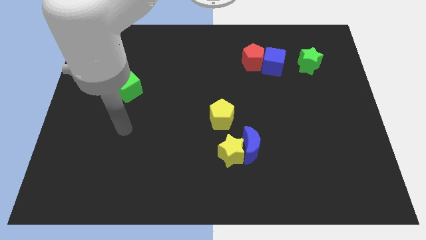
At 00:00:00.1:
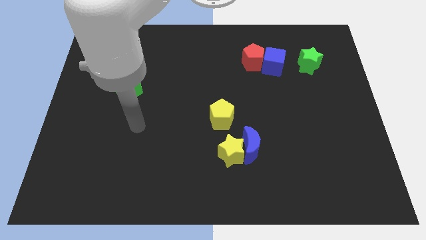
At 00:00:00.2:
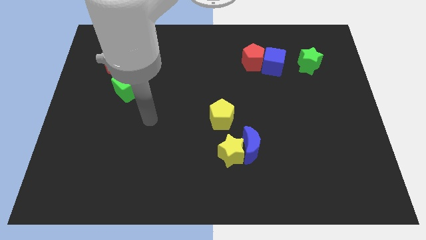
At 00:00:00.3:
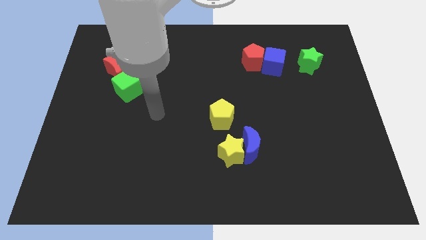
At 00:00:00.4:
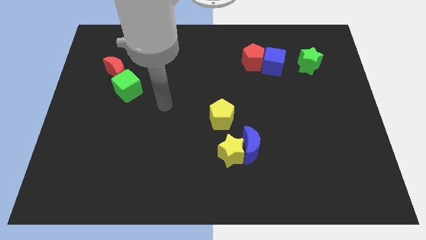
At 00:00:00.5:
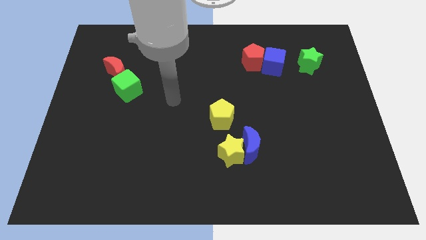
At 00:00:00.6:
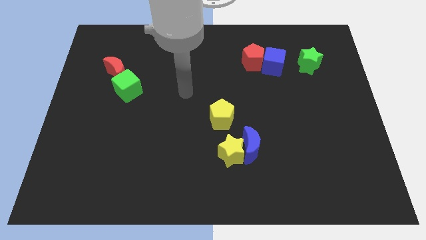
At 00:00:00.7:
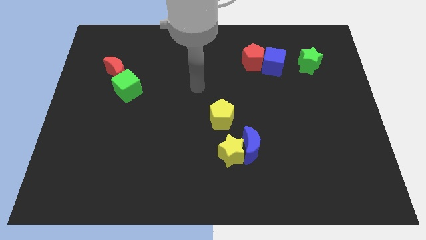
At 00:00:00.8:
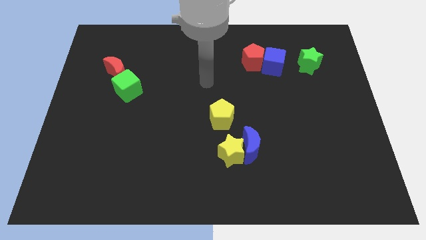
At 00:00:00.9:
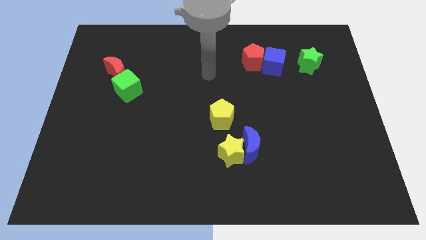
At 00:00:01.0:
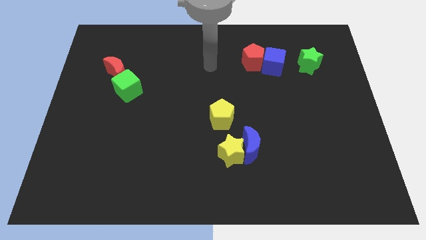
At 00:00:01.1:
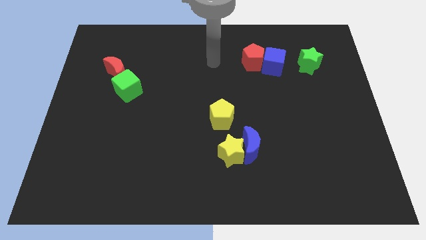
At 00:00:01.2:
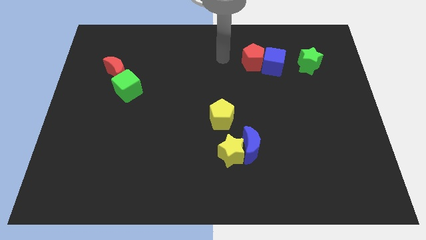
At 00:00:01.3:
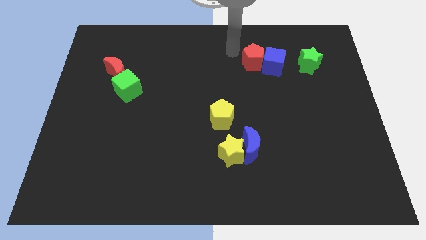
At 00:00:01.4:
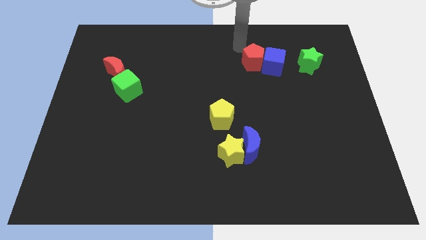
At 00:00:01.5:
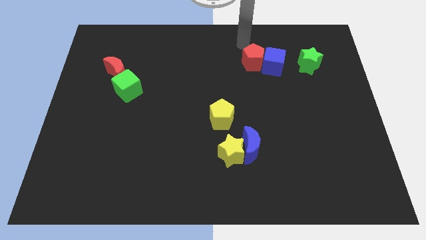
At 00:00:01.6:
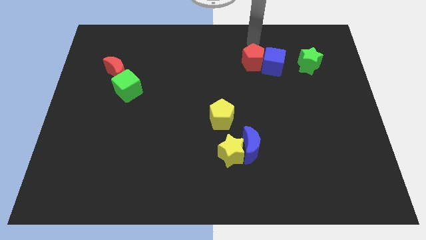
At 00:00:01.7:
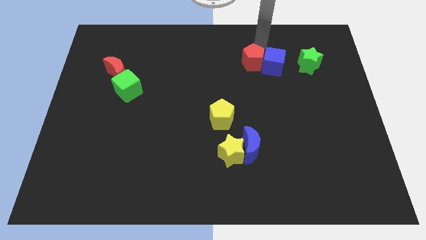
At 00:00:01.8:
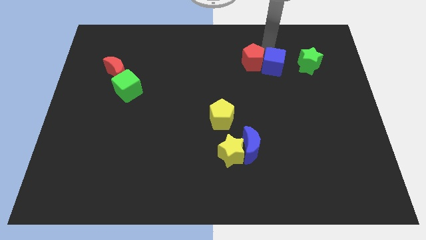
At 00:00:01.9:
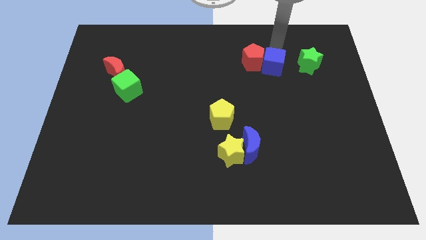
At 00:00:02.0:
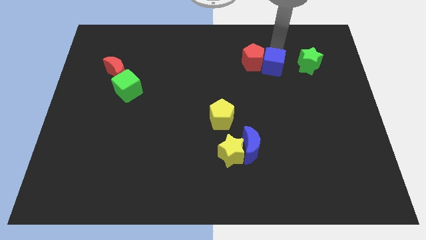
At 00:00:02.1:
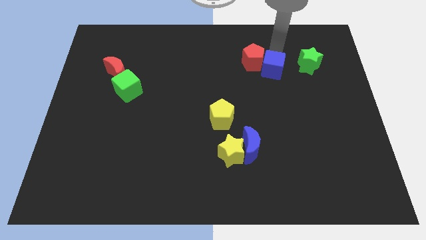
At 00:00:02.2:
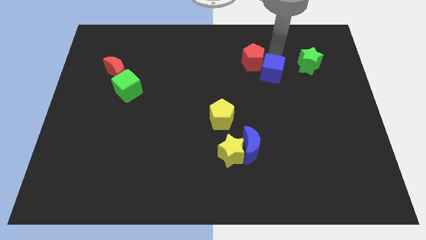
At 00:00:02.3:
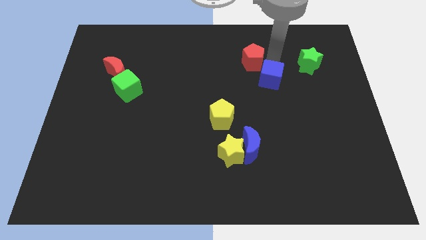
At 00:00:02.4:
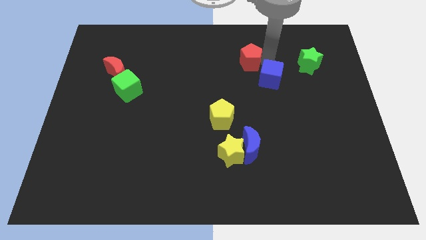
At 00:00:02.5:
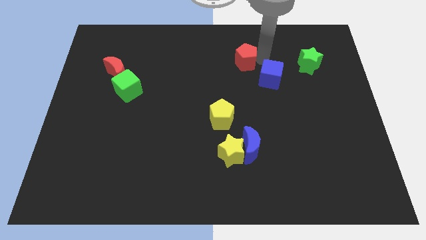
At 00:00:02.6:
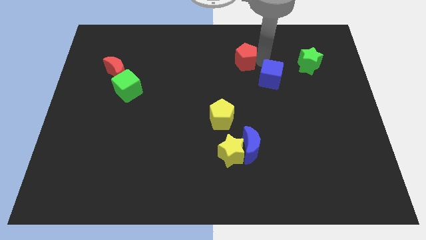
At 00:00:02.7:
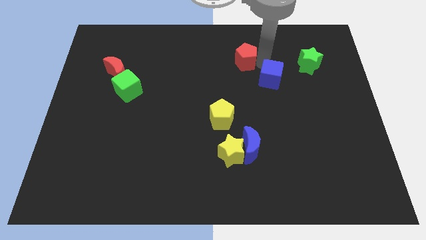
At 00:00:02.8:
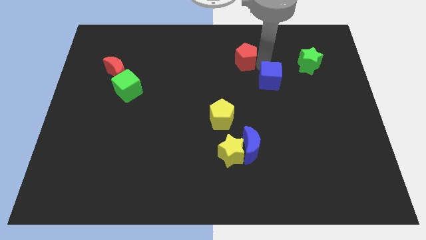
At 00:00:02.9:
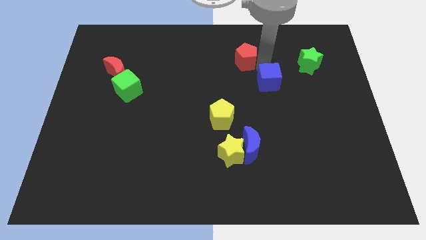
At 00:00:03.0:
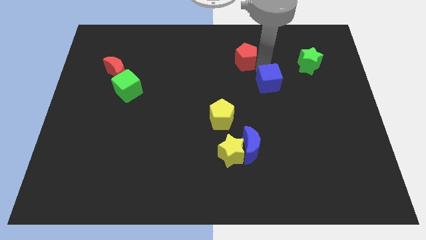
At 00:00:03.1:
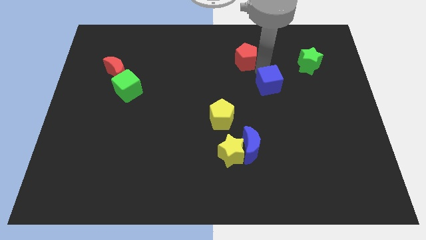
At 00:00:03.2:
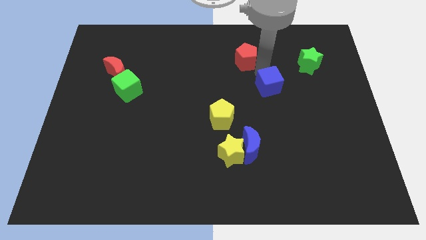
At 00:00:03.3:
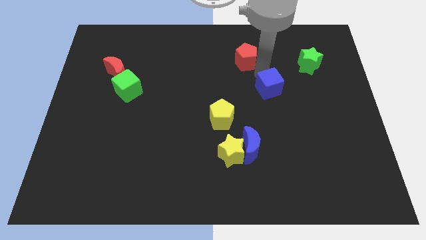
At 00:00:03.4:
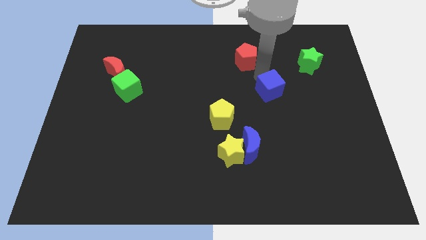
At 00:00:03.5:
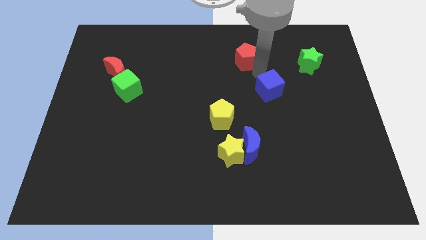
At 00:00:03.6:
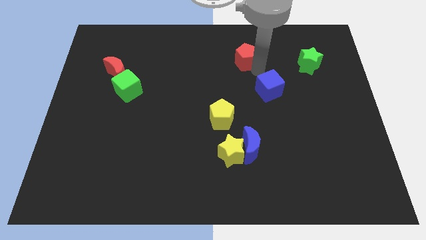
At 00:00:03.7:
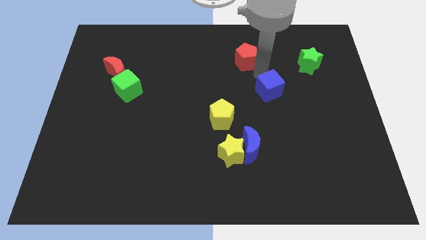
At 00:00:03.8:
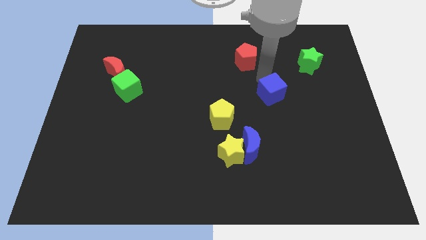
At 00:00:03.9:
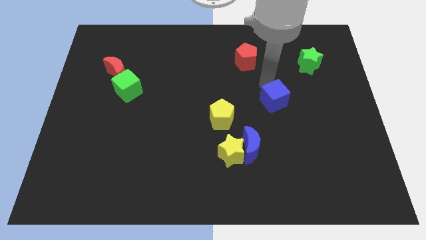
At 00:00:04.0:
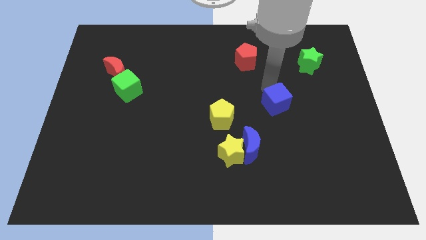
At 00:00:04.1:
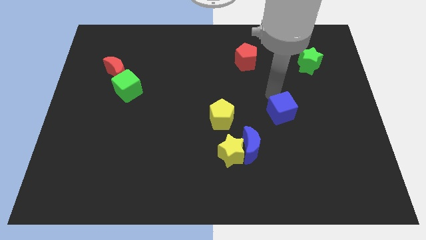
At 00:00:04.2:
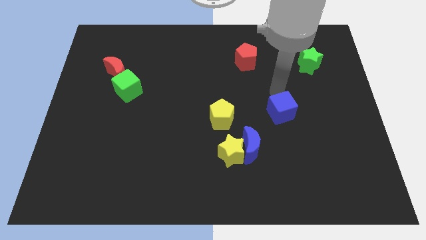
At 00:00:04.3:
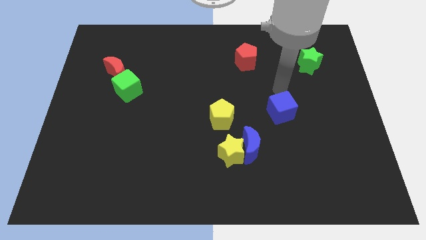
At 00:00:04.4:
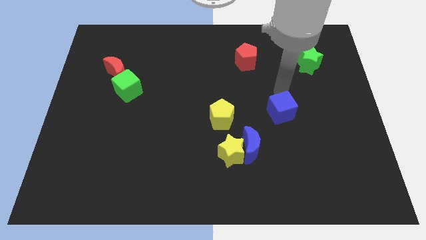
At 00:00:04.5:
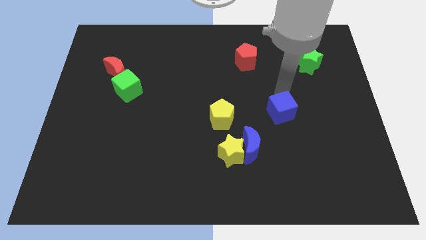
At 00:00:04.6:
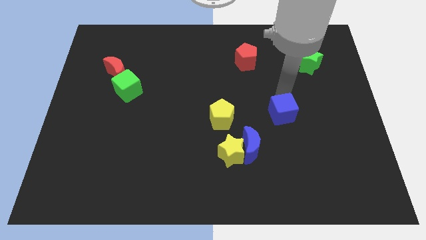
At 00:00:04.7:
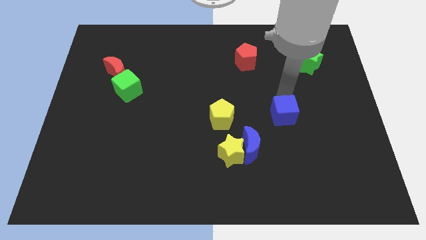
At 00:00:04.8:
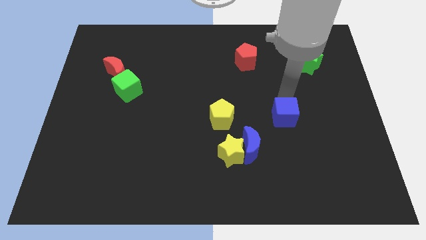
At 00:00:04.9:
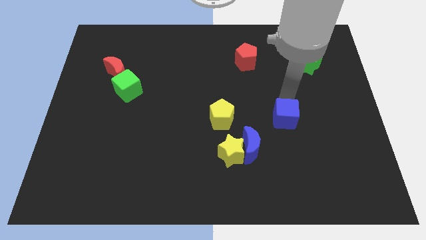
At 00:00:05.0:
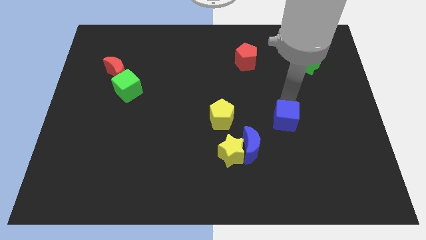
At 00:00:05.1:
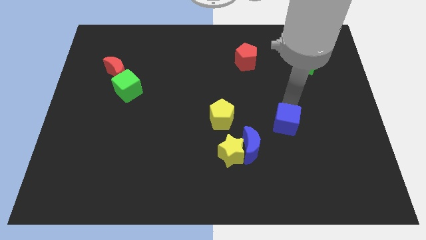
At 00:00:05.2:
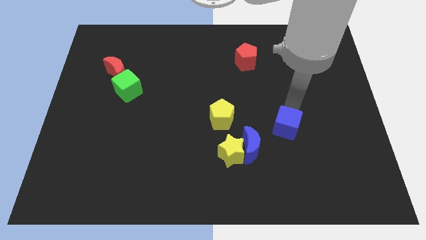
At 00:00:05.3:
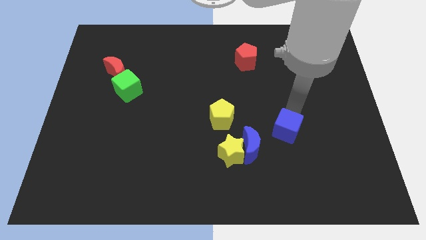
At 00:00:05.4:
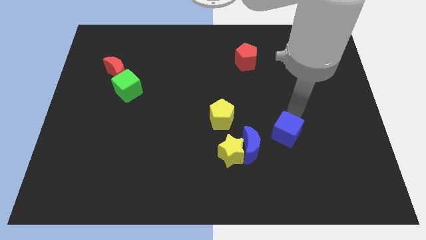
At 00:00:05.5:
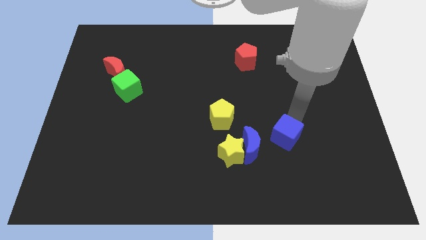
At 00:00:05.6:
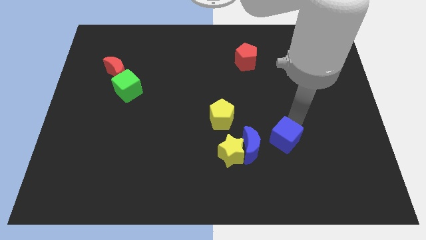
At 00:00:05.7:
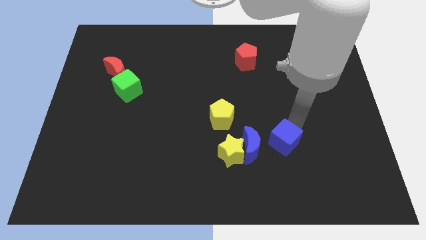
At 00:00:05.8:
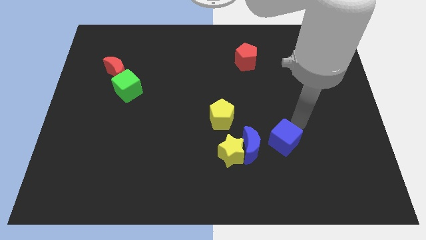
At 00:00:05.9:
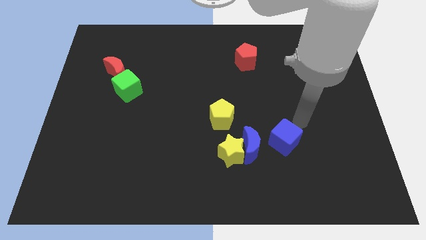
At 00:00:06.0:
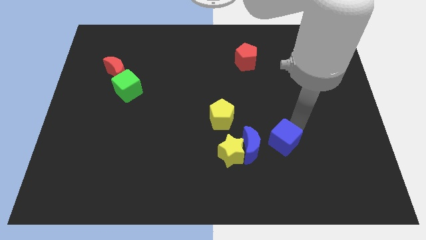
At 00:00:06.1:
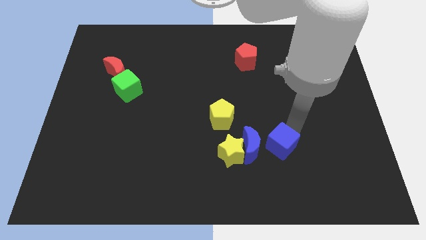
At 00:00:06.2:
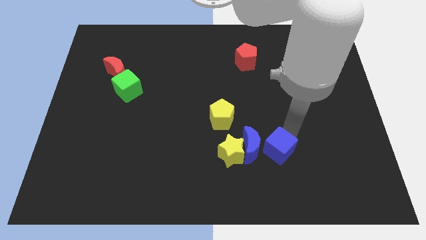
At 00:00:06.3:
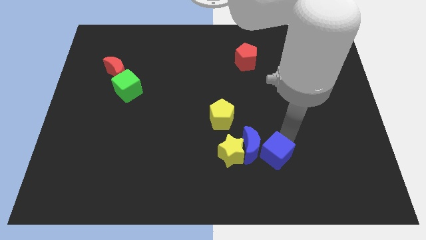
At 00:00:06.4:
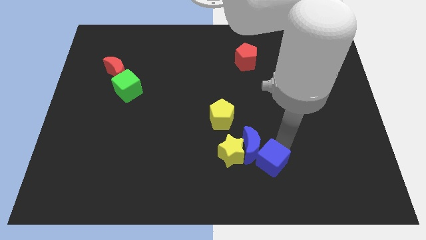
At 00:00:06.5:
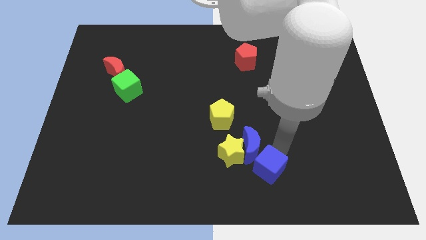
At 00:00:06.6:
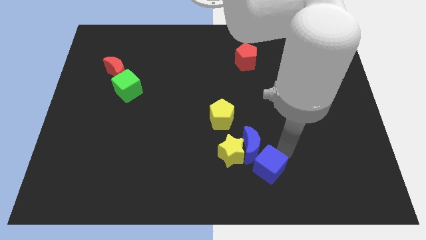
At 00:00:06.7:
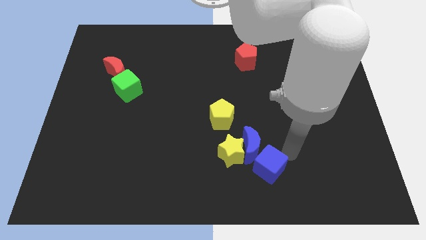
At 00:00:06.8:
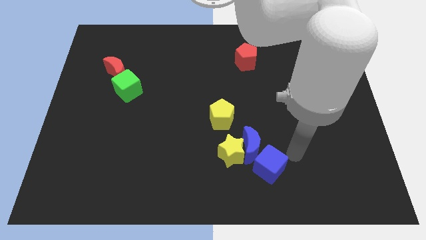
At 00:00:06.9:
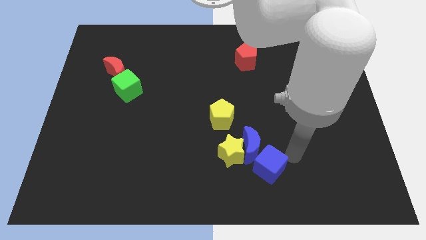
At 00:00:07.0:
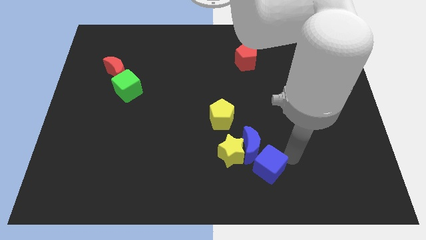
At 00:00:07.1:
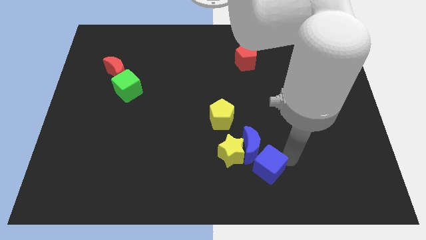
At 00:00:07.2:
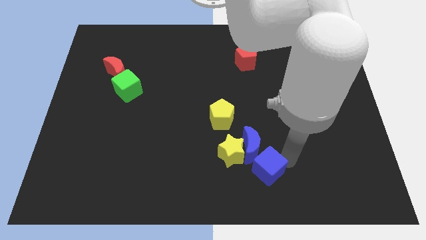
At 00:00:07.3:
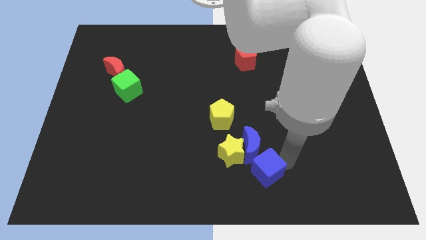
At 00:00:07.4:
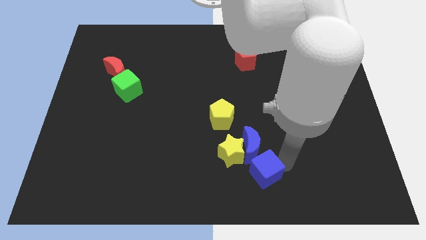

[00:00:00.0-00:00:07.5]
slide the blue cube to the bottom side
